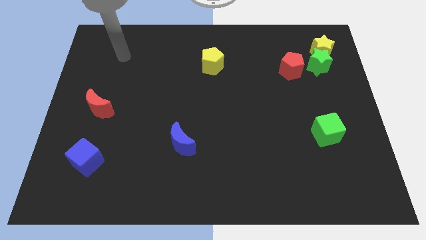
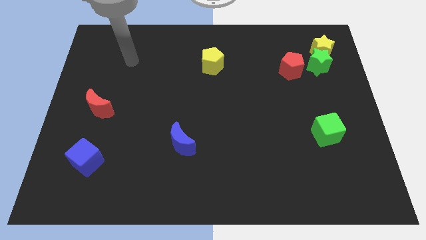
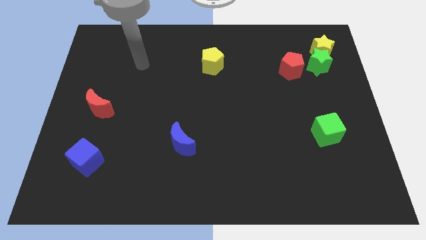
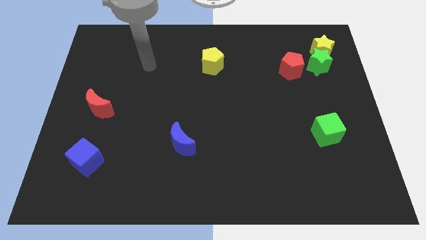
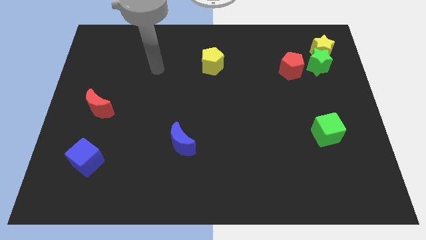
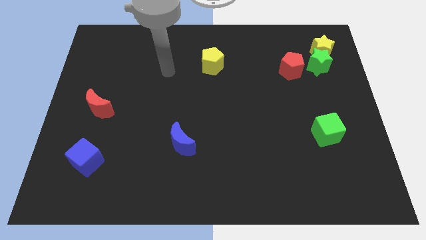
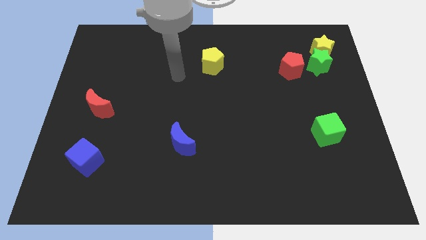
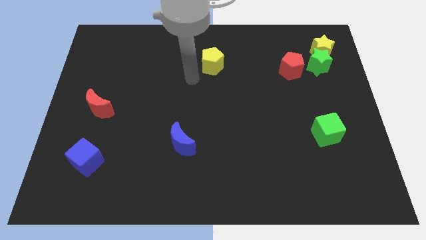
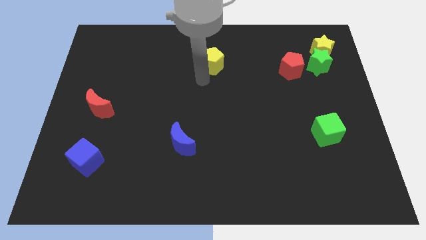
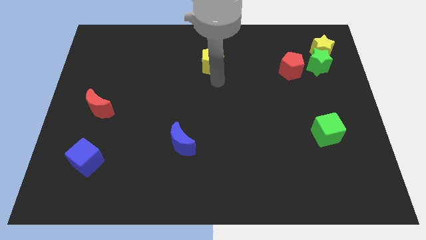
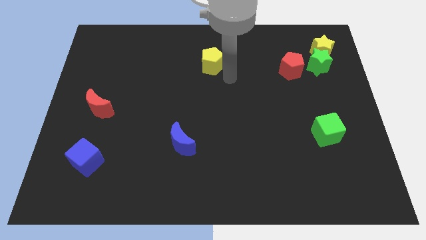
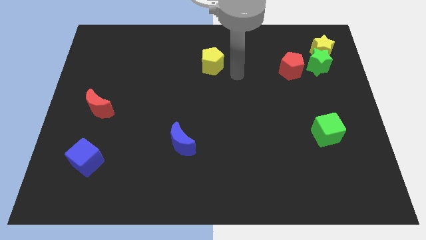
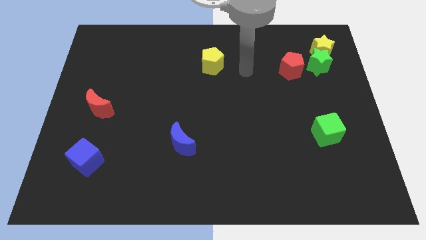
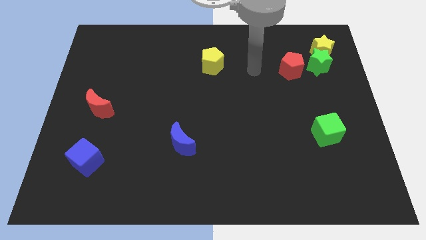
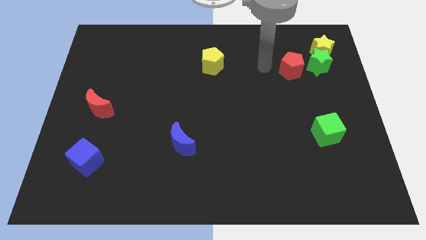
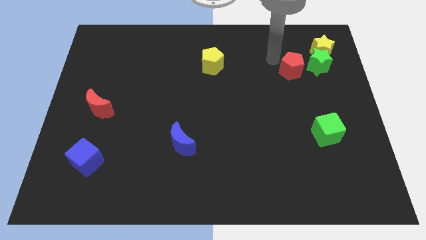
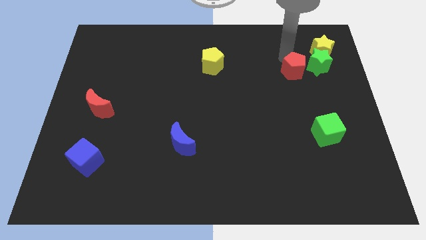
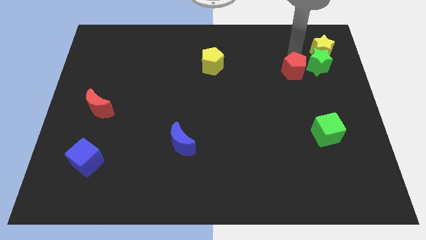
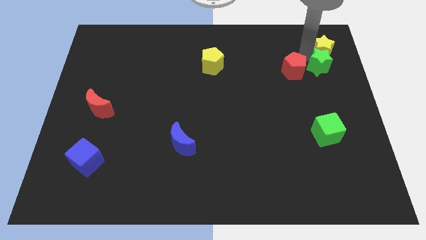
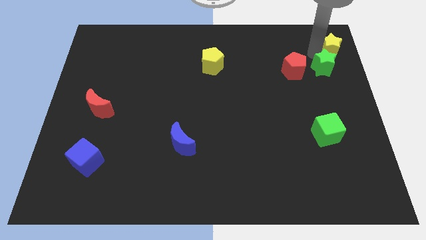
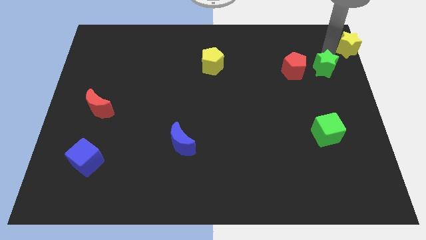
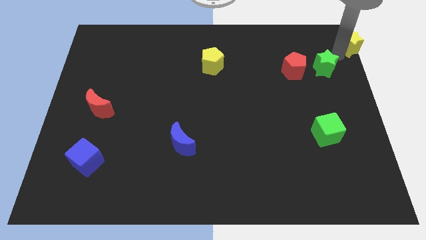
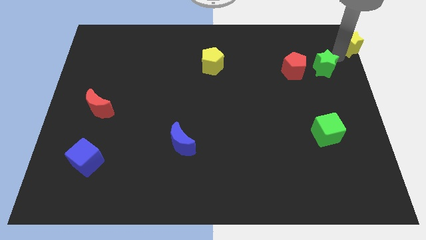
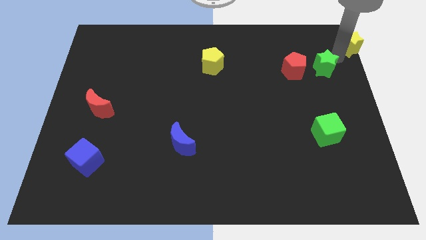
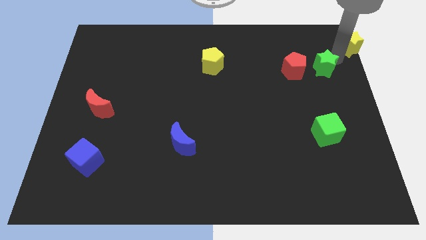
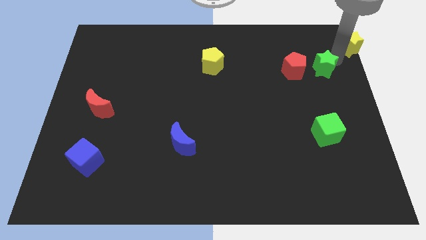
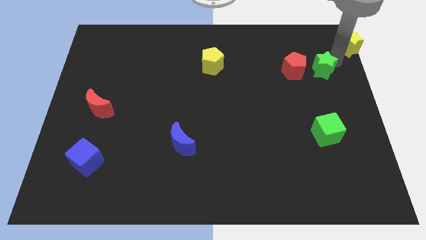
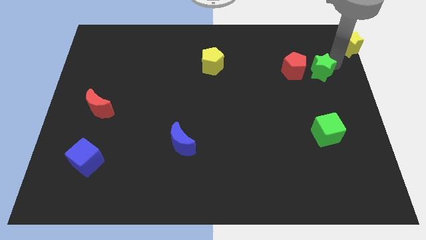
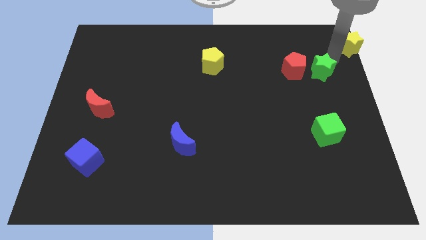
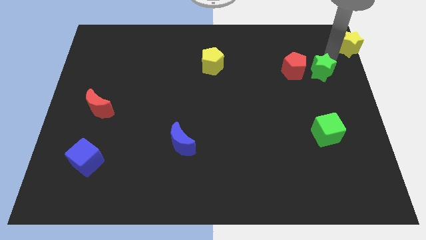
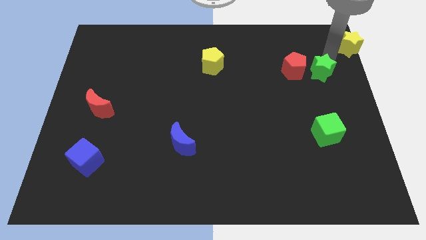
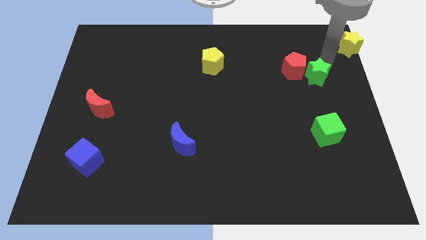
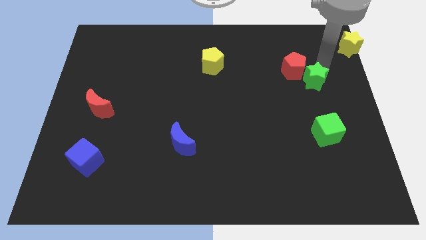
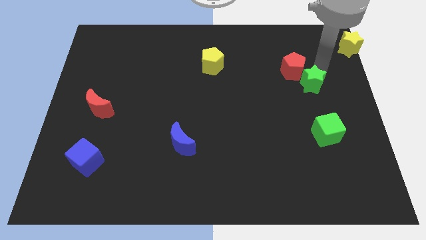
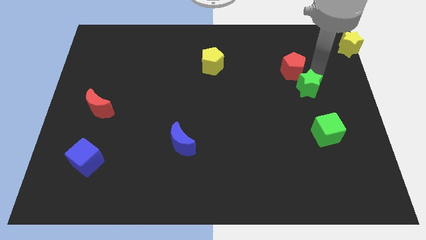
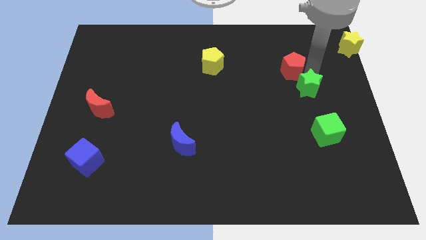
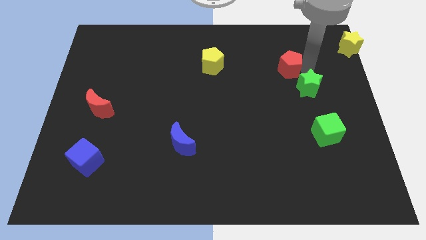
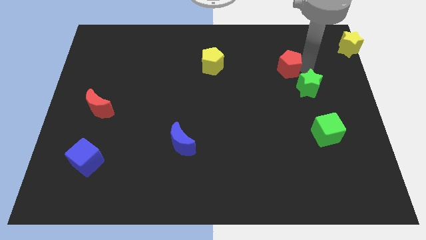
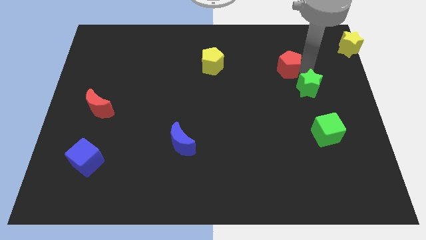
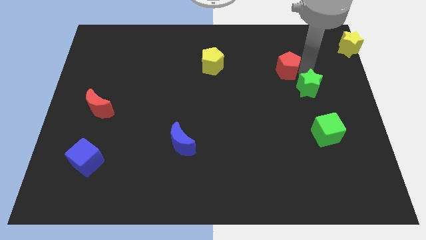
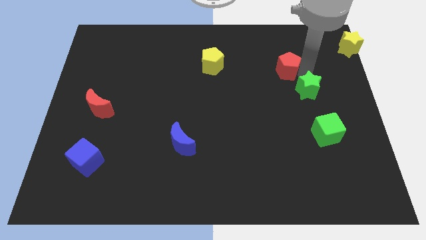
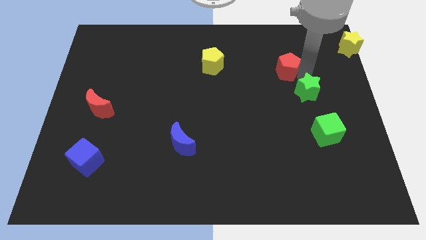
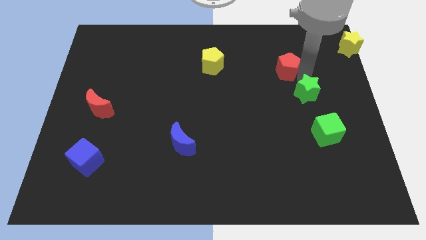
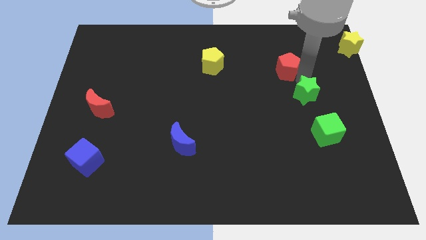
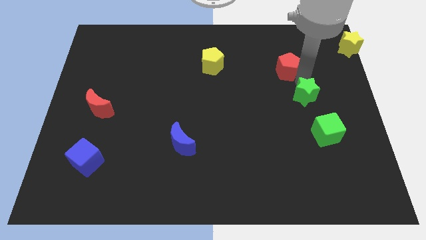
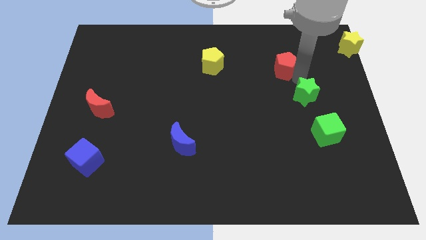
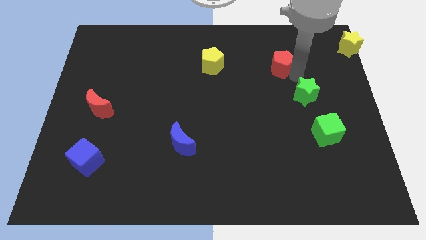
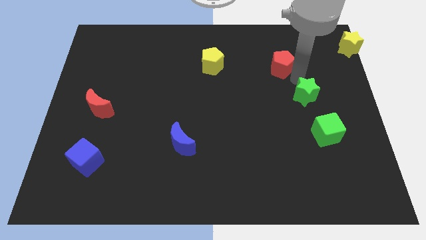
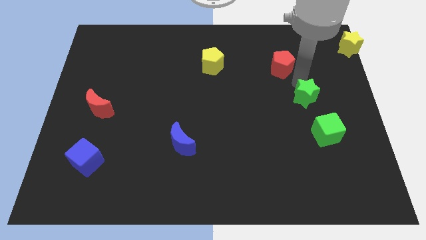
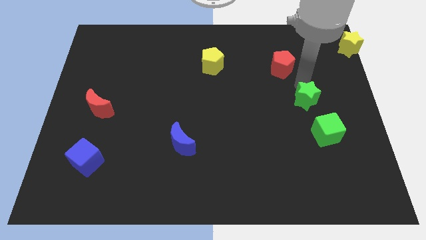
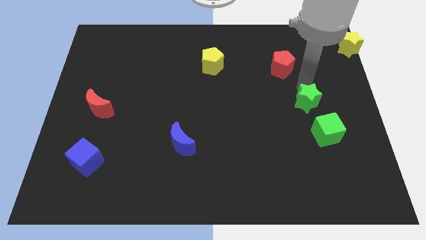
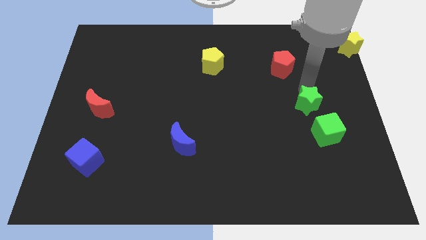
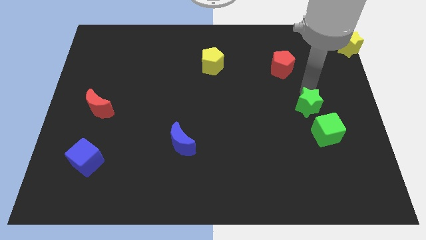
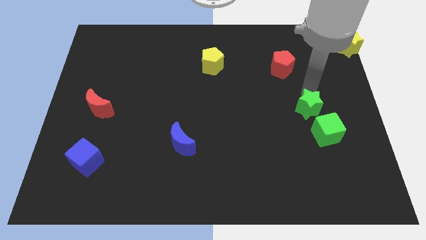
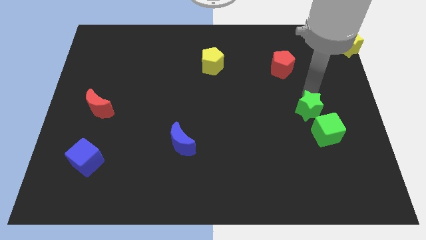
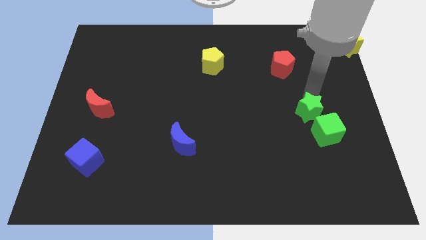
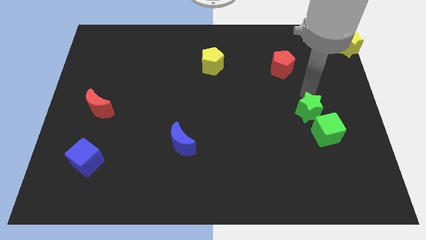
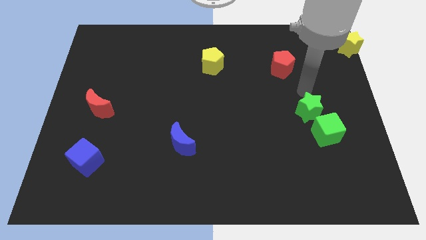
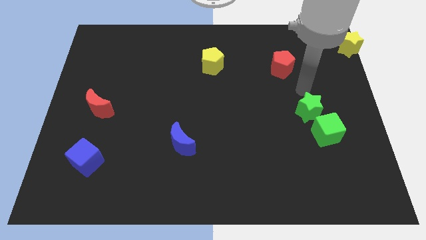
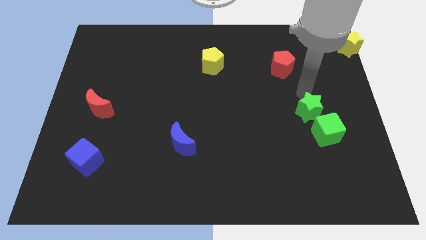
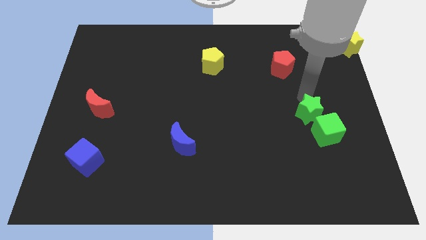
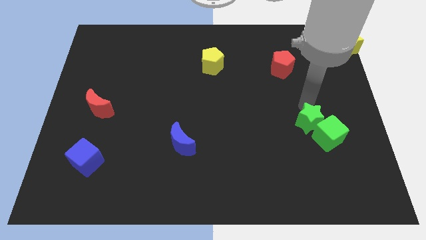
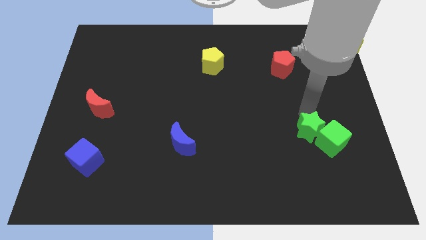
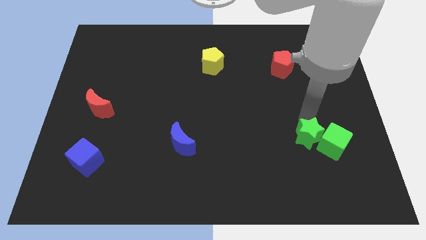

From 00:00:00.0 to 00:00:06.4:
move the green star down

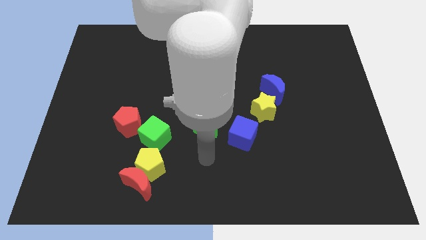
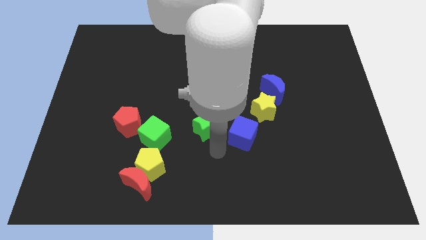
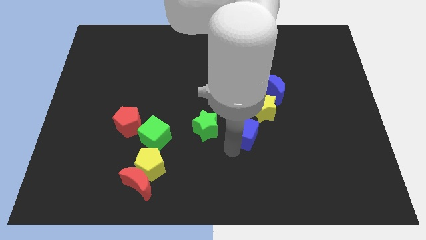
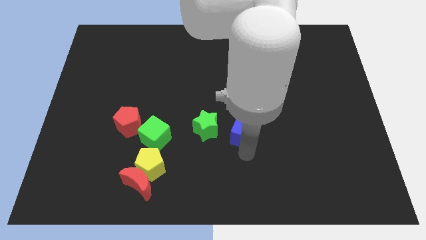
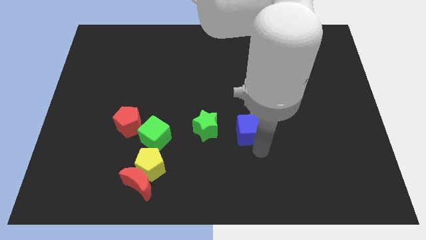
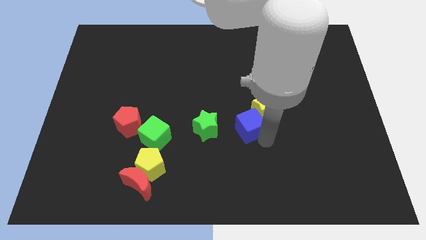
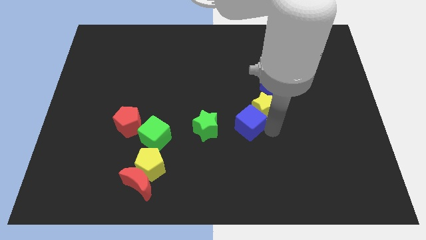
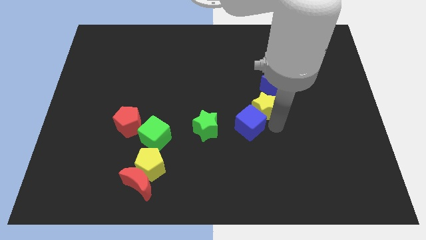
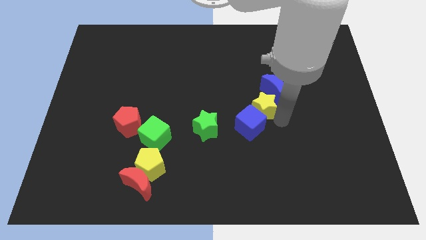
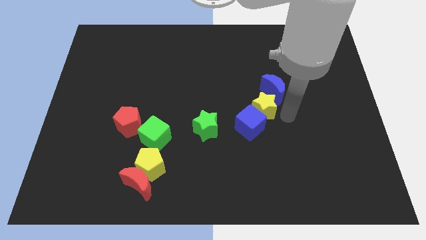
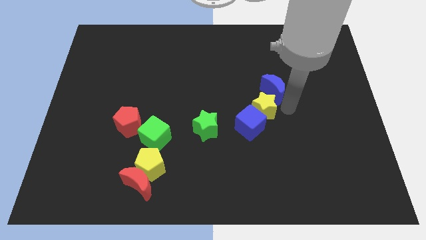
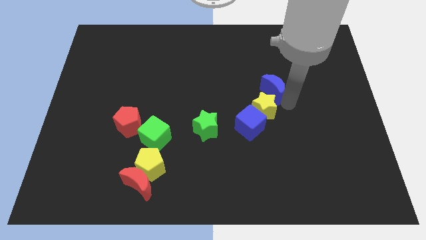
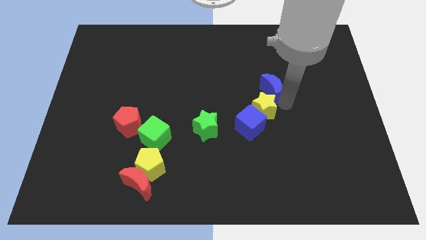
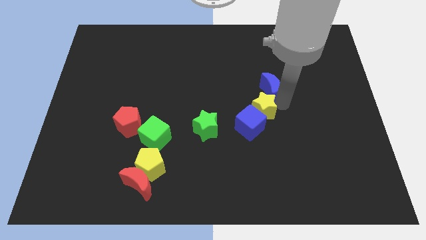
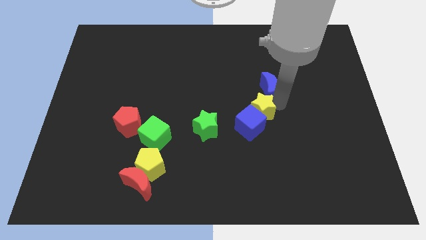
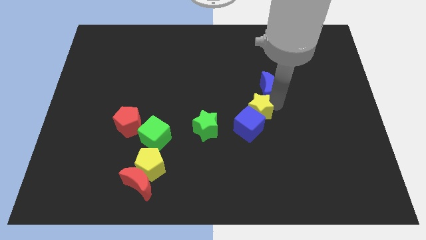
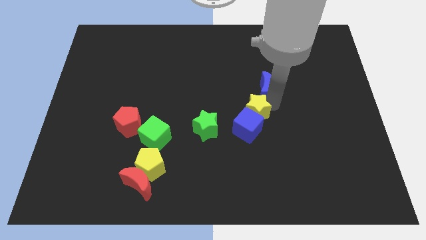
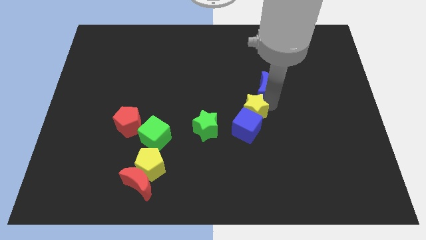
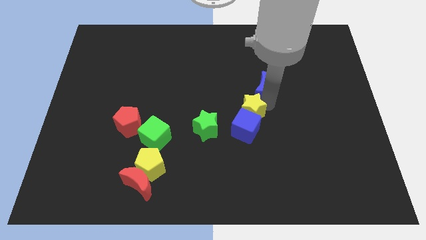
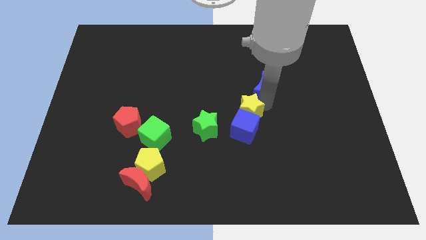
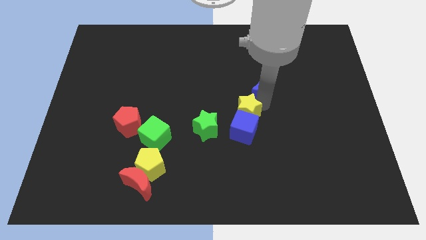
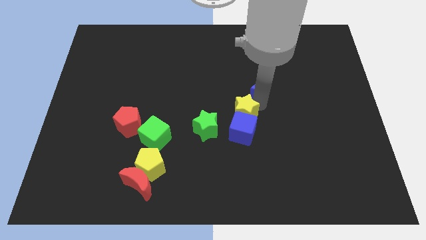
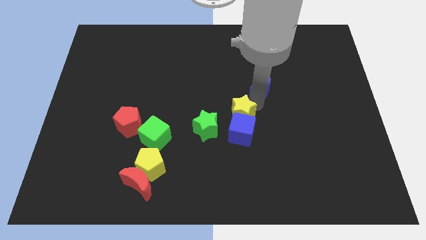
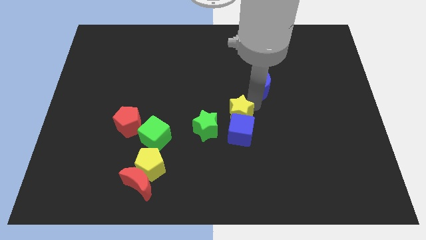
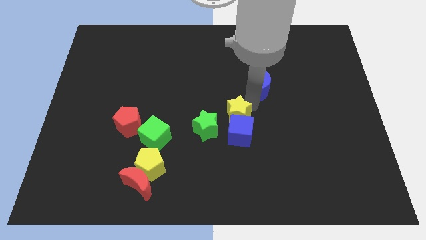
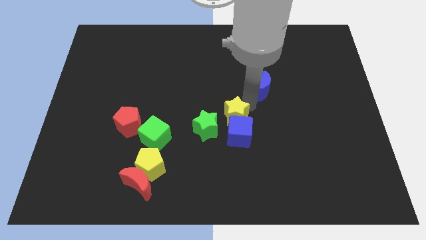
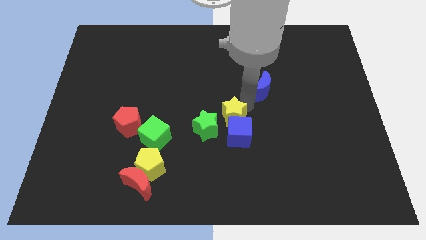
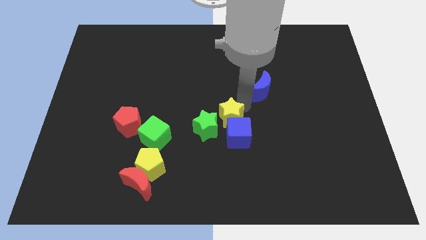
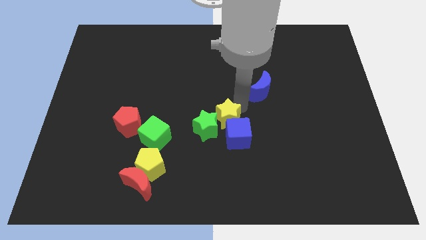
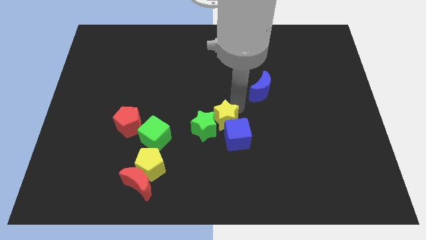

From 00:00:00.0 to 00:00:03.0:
slide the yellow star diagonally downwards and left somewhat
